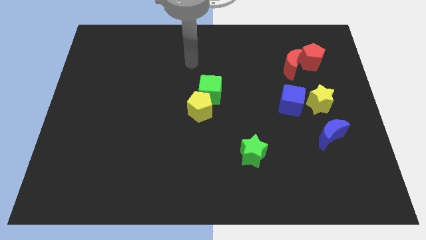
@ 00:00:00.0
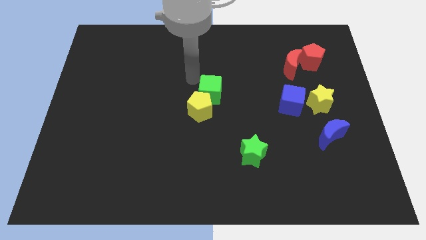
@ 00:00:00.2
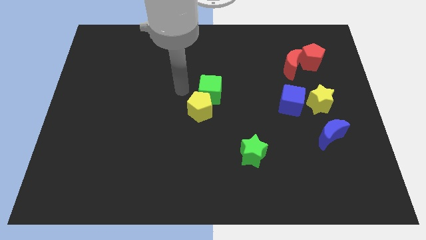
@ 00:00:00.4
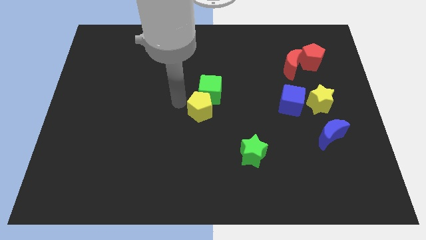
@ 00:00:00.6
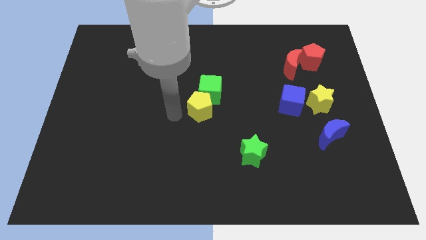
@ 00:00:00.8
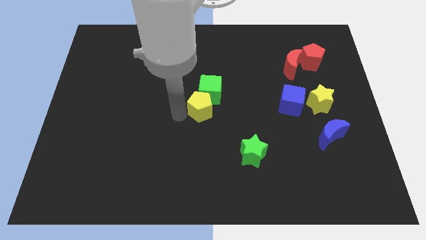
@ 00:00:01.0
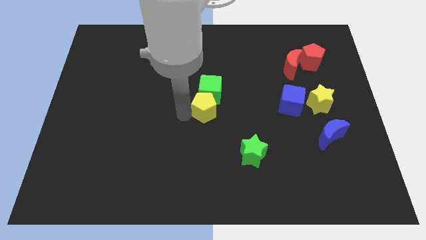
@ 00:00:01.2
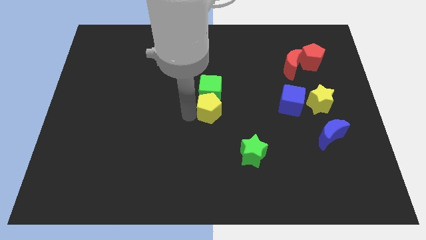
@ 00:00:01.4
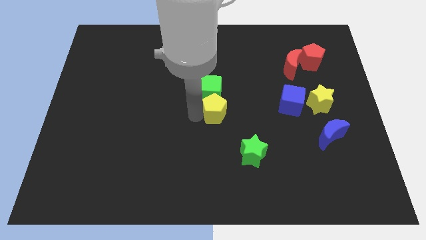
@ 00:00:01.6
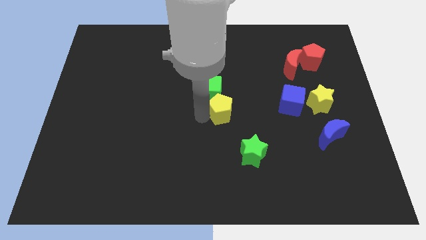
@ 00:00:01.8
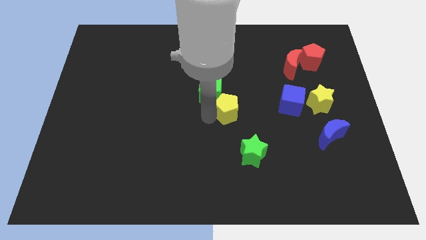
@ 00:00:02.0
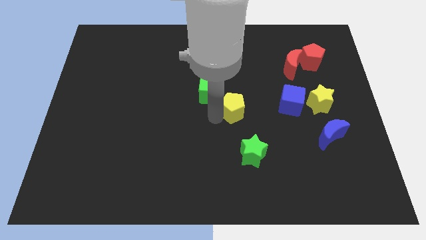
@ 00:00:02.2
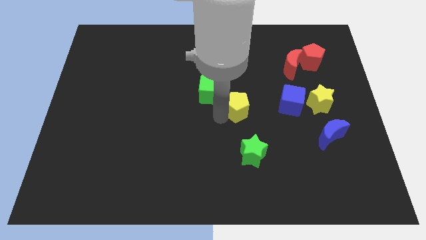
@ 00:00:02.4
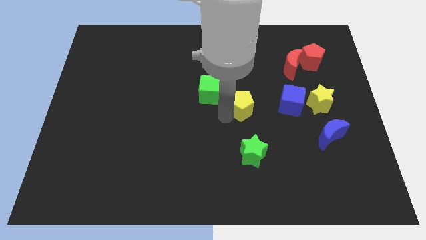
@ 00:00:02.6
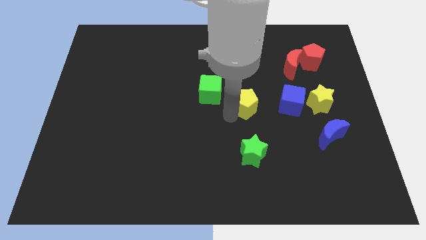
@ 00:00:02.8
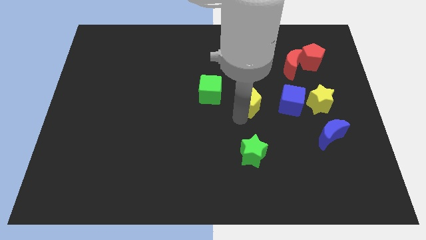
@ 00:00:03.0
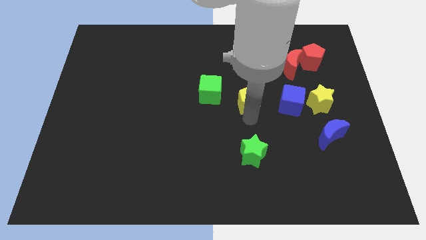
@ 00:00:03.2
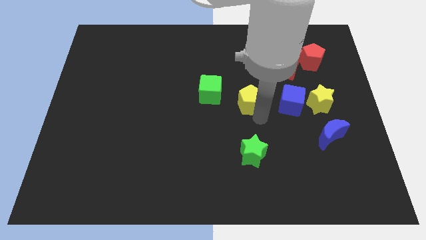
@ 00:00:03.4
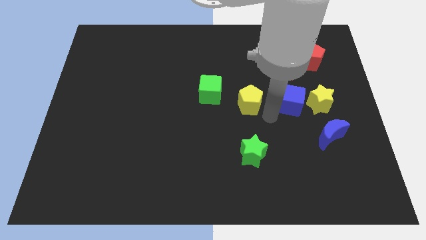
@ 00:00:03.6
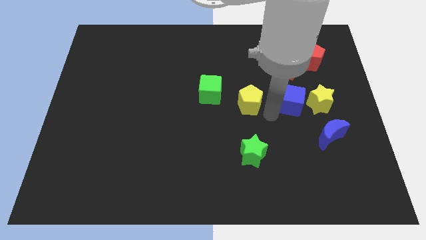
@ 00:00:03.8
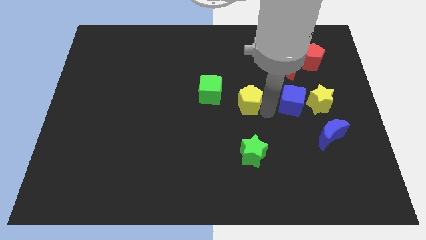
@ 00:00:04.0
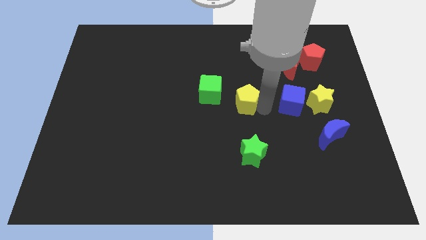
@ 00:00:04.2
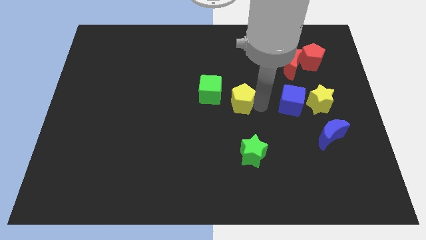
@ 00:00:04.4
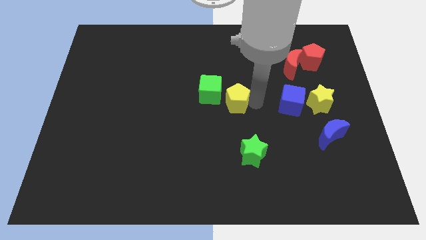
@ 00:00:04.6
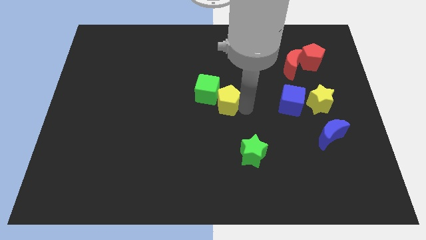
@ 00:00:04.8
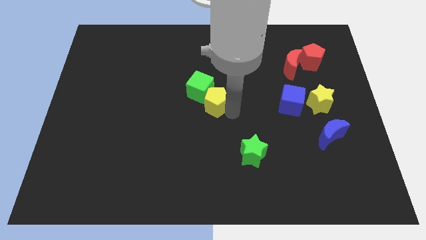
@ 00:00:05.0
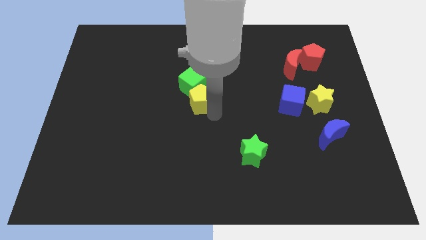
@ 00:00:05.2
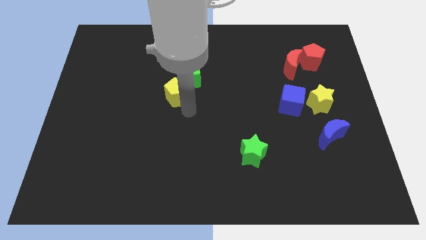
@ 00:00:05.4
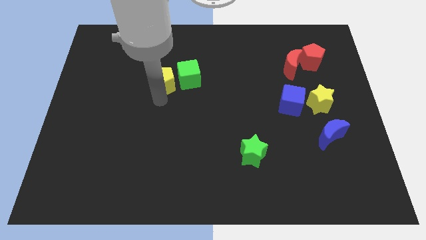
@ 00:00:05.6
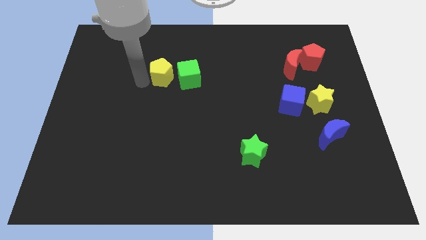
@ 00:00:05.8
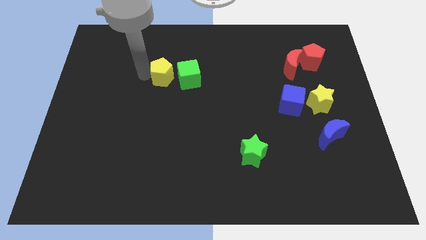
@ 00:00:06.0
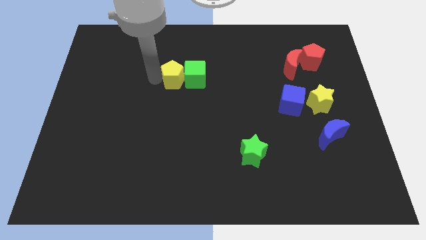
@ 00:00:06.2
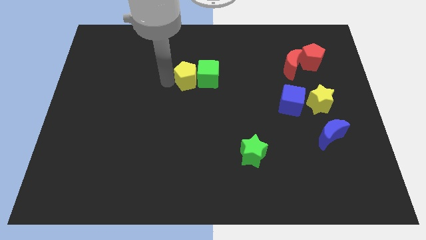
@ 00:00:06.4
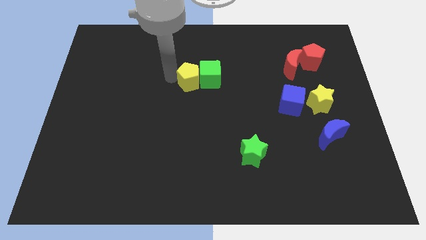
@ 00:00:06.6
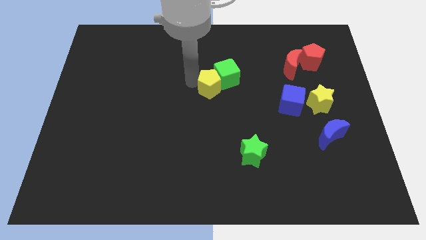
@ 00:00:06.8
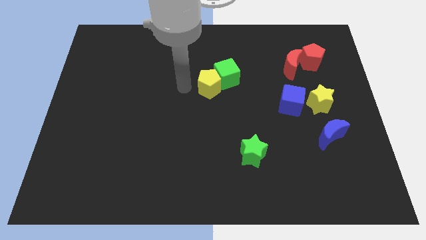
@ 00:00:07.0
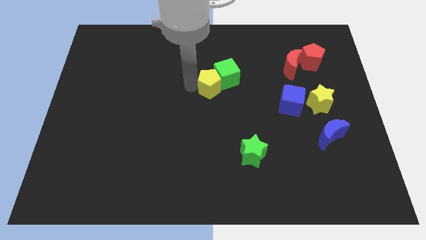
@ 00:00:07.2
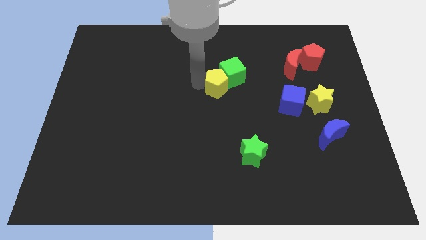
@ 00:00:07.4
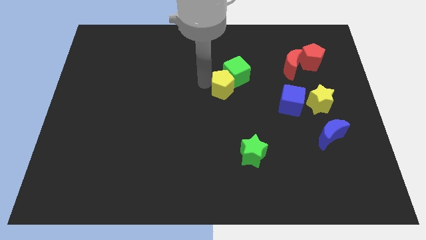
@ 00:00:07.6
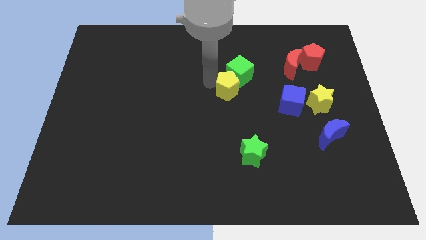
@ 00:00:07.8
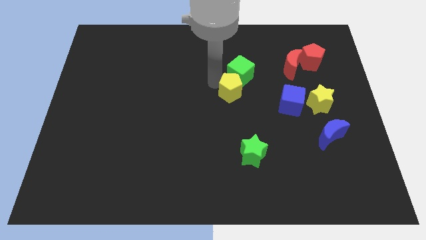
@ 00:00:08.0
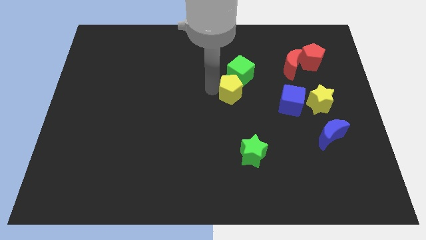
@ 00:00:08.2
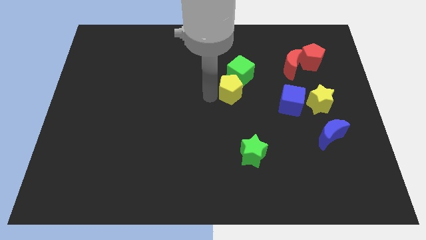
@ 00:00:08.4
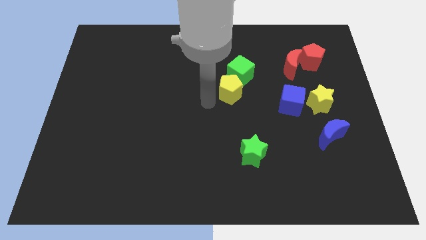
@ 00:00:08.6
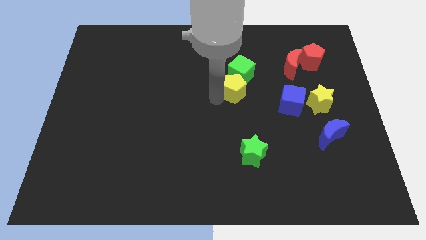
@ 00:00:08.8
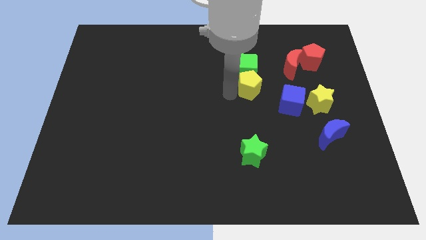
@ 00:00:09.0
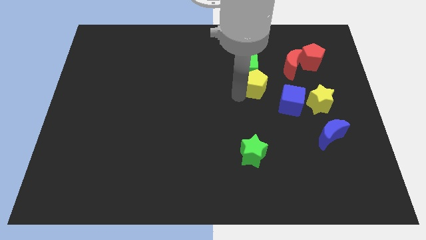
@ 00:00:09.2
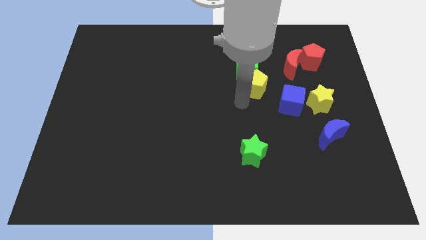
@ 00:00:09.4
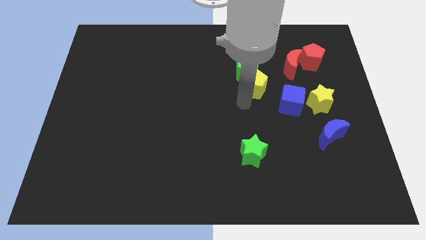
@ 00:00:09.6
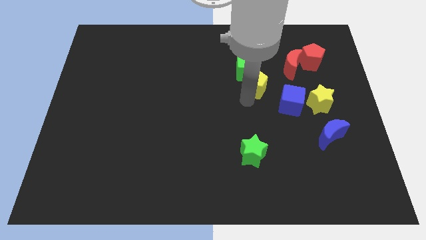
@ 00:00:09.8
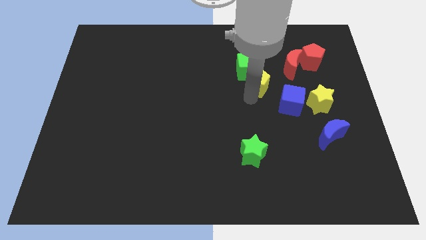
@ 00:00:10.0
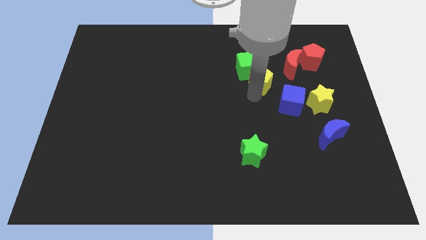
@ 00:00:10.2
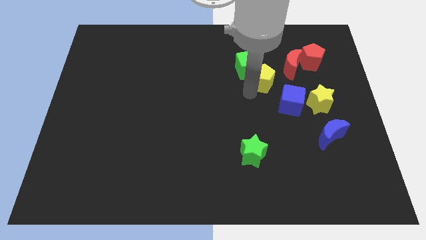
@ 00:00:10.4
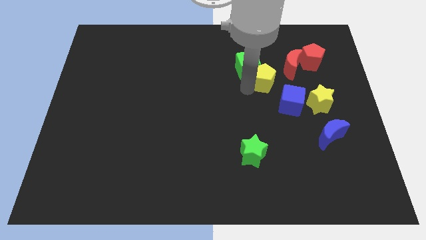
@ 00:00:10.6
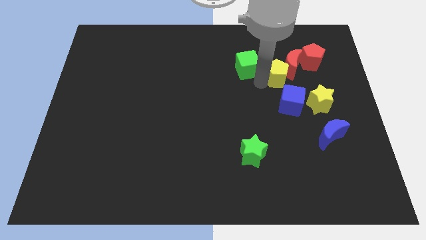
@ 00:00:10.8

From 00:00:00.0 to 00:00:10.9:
put the yellow pentagon close to the red moon
